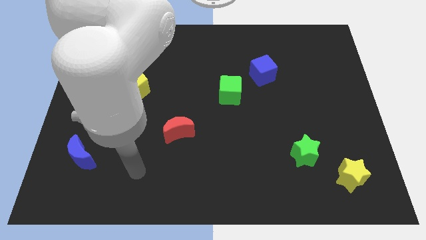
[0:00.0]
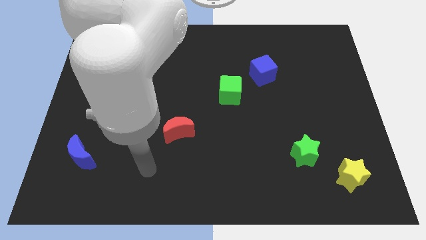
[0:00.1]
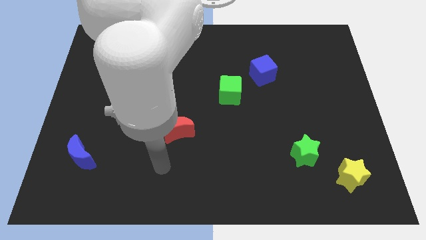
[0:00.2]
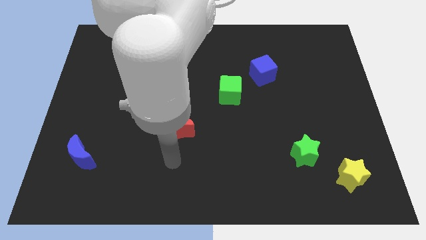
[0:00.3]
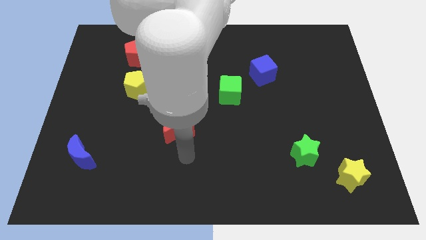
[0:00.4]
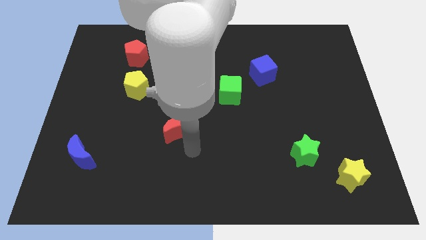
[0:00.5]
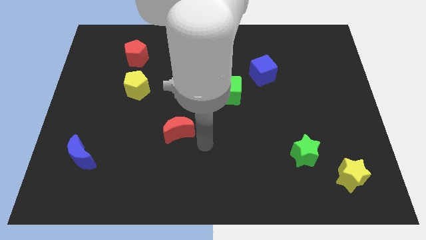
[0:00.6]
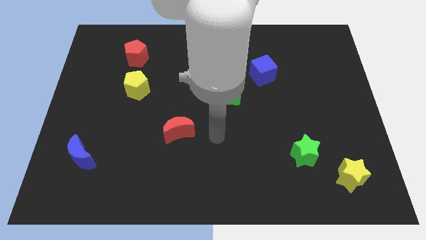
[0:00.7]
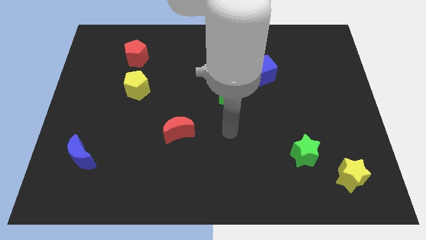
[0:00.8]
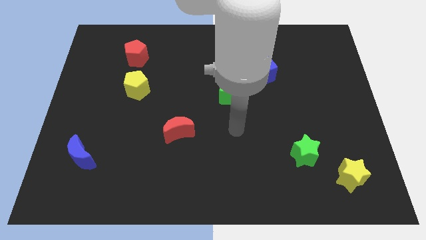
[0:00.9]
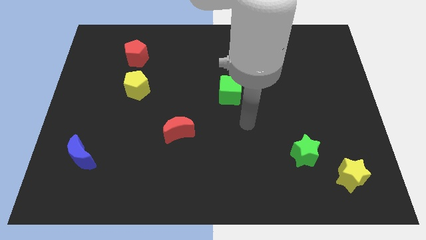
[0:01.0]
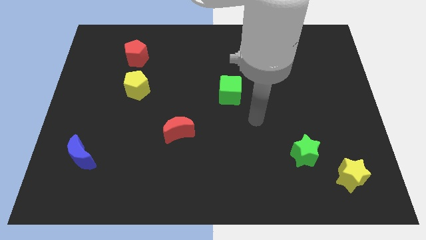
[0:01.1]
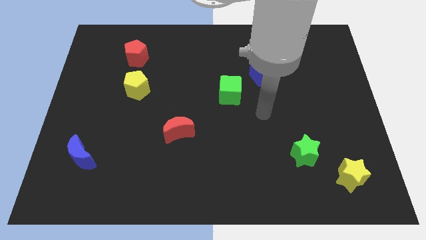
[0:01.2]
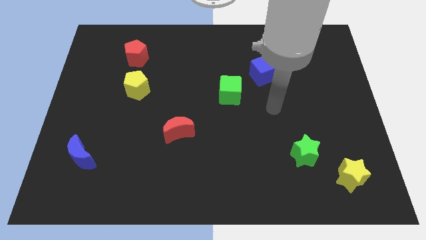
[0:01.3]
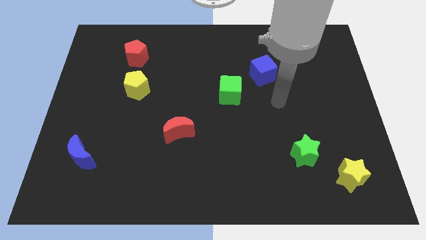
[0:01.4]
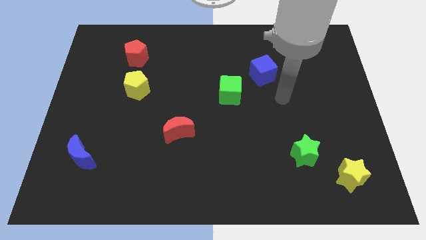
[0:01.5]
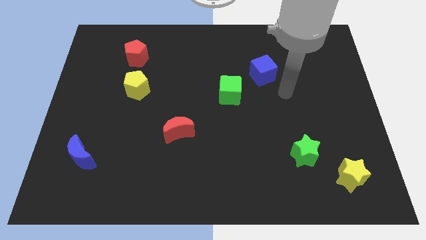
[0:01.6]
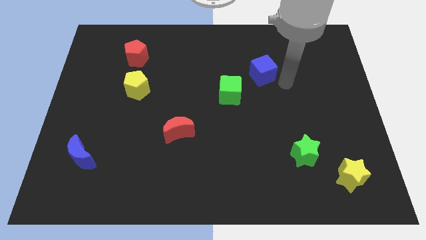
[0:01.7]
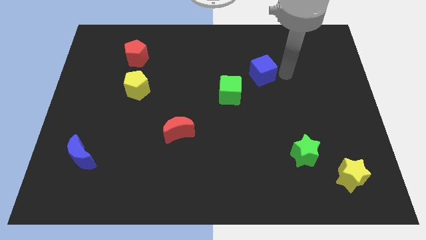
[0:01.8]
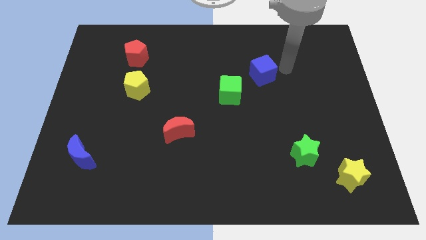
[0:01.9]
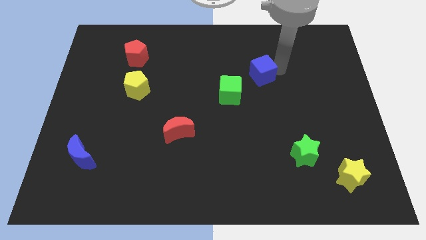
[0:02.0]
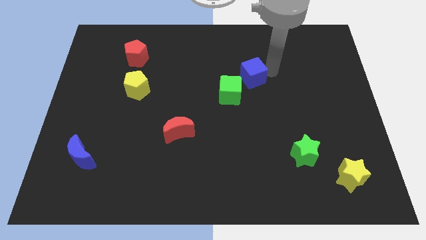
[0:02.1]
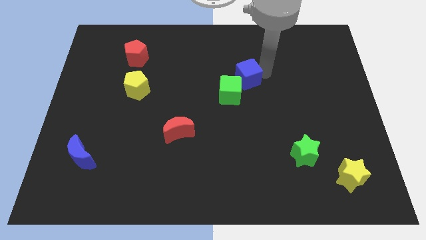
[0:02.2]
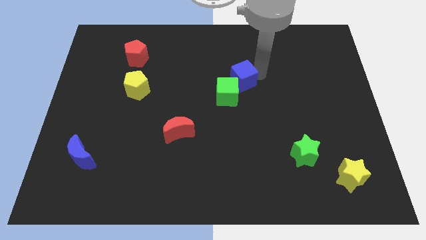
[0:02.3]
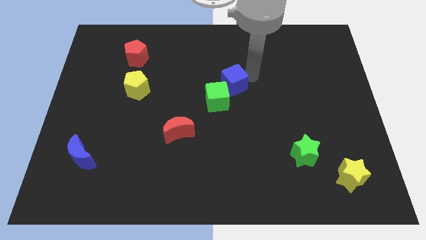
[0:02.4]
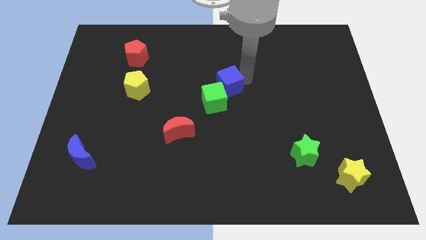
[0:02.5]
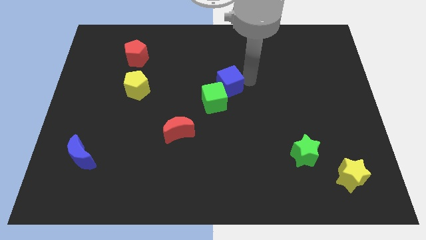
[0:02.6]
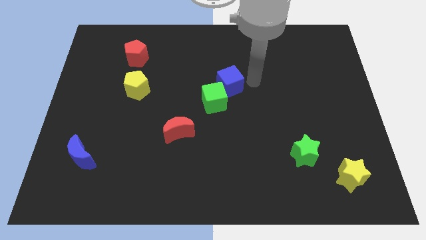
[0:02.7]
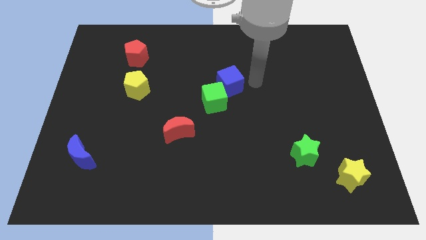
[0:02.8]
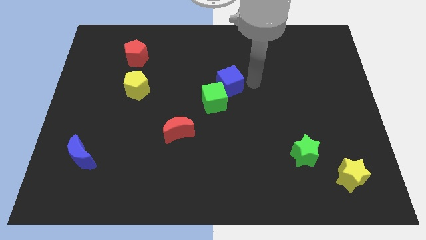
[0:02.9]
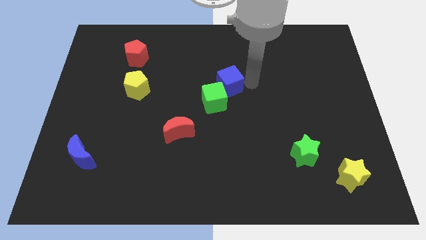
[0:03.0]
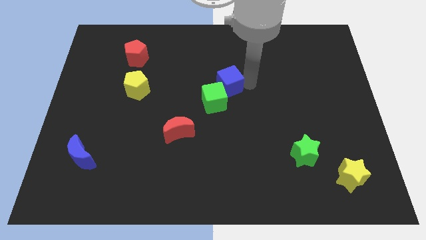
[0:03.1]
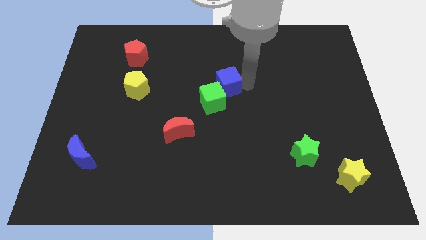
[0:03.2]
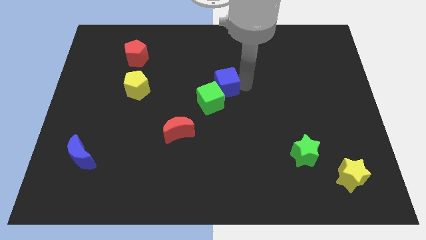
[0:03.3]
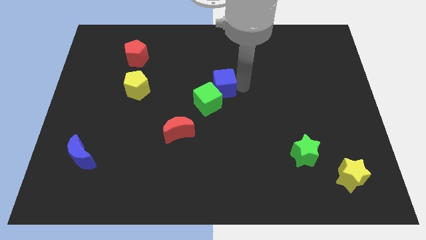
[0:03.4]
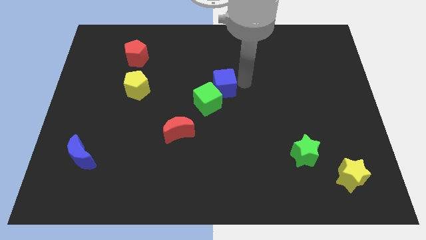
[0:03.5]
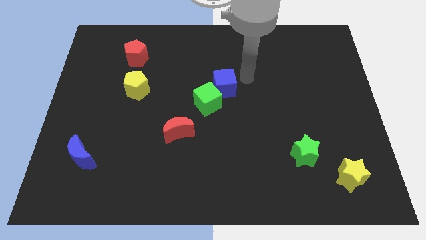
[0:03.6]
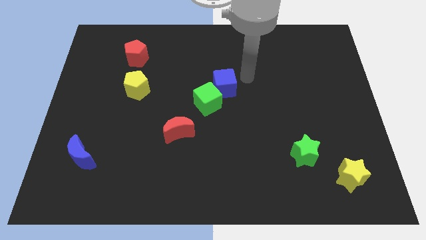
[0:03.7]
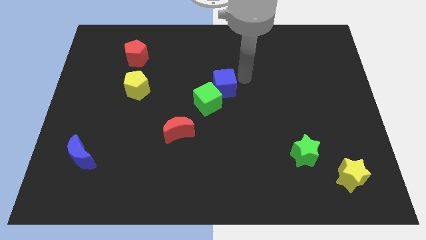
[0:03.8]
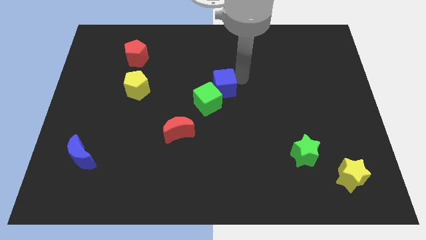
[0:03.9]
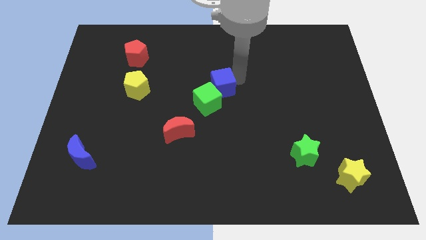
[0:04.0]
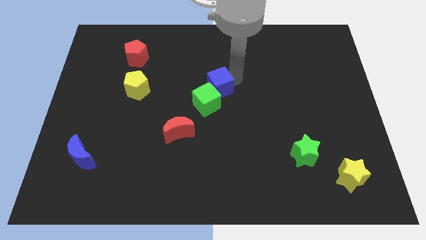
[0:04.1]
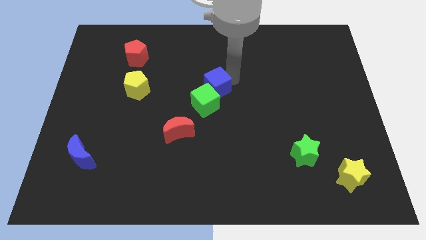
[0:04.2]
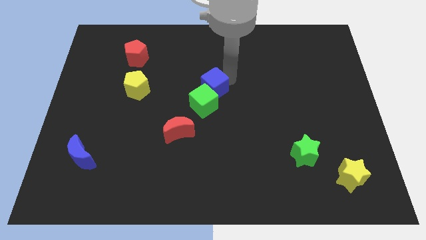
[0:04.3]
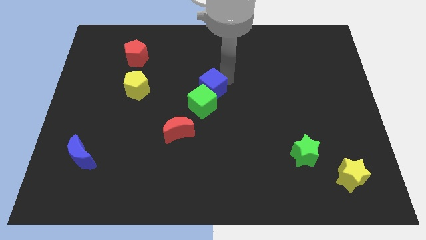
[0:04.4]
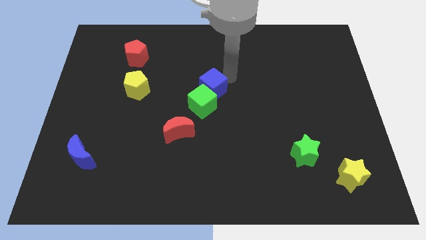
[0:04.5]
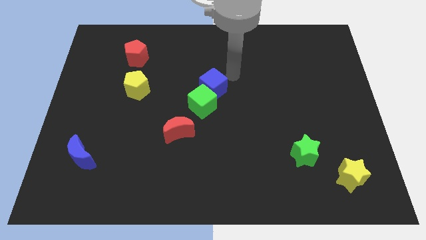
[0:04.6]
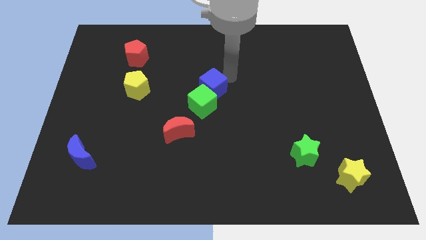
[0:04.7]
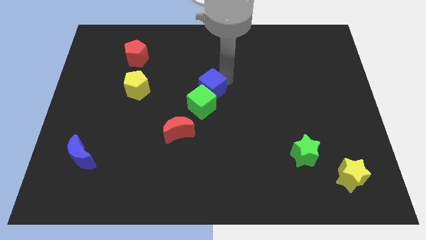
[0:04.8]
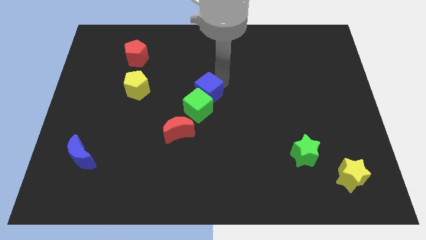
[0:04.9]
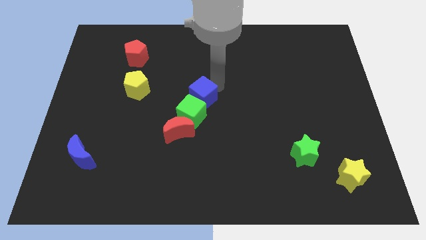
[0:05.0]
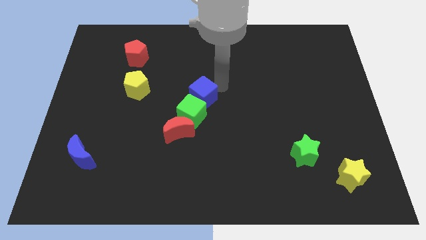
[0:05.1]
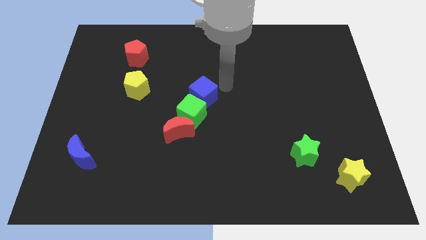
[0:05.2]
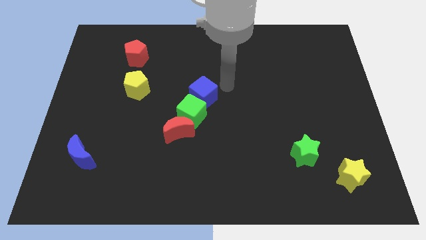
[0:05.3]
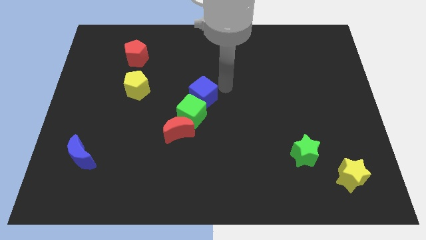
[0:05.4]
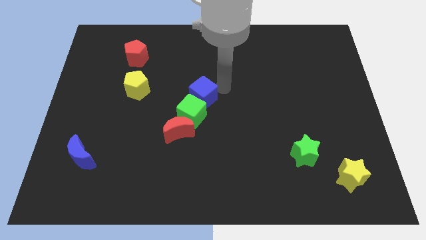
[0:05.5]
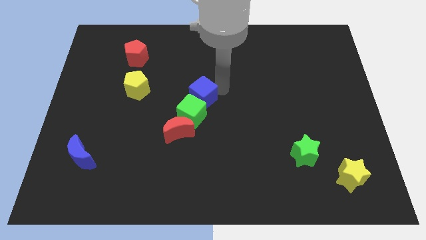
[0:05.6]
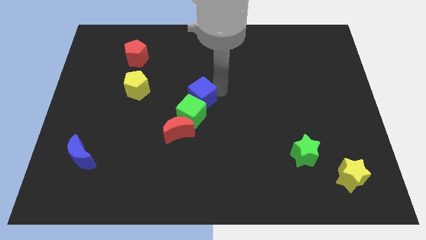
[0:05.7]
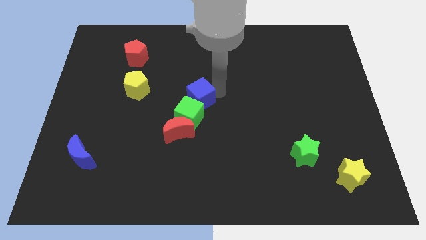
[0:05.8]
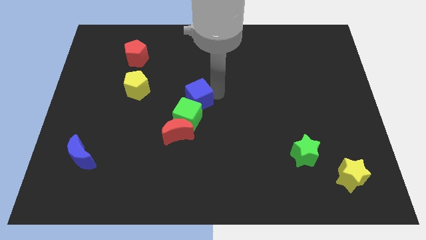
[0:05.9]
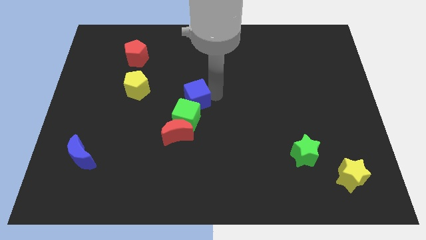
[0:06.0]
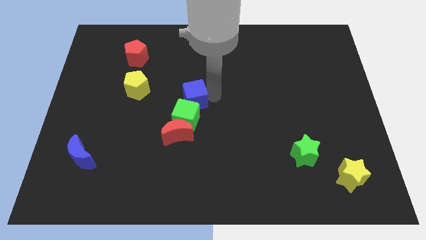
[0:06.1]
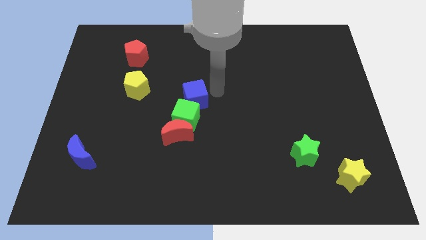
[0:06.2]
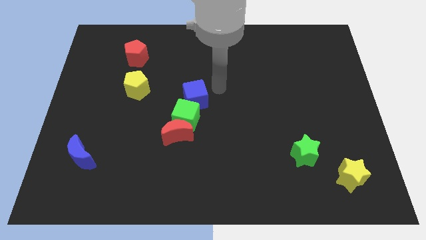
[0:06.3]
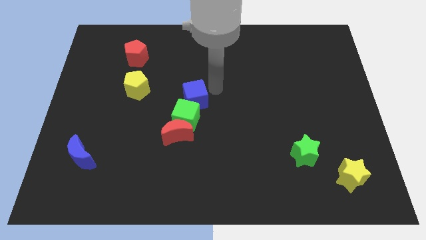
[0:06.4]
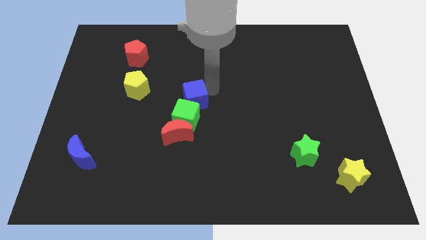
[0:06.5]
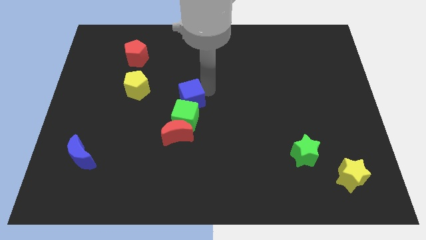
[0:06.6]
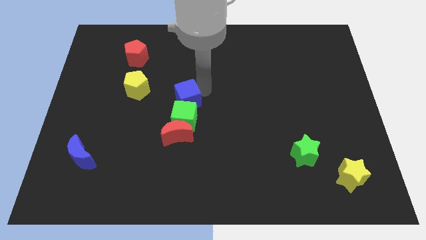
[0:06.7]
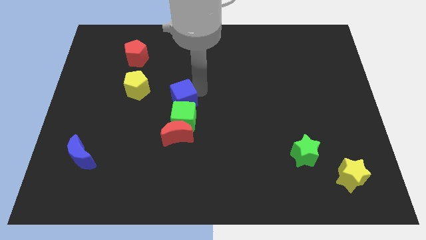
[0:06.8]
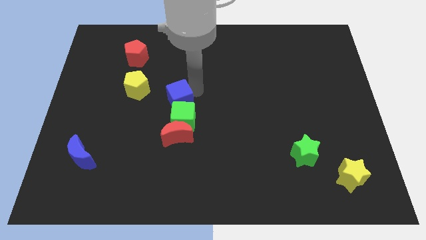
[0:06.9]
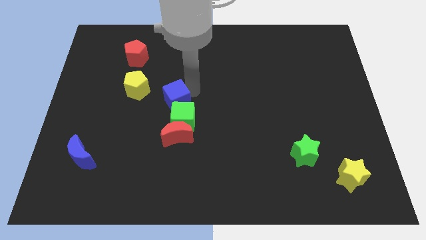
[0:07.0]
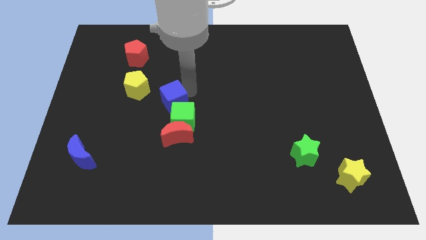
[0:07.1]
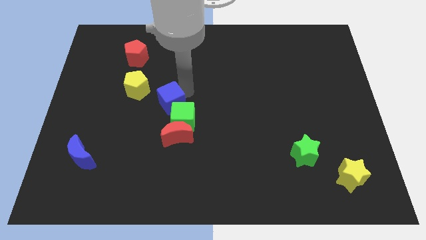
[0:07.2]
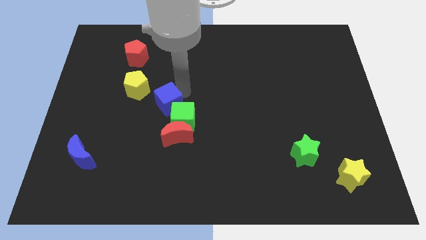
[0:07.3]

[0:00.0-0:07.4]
slide the blue cube to the top left side of the red moon

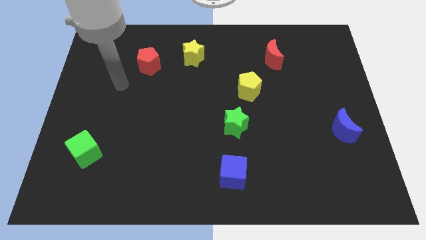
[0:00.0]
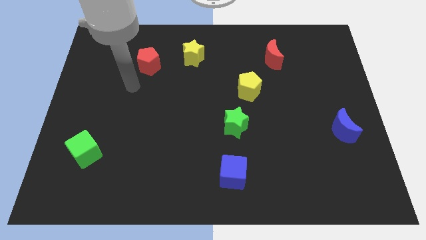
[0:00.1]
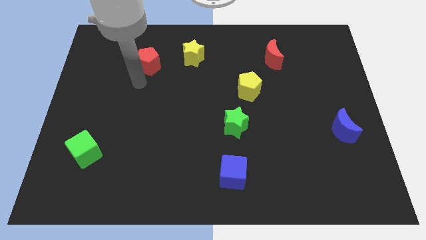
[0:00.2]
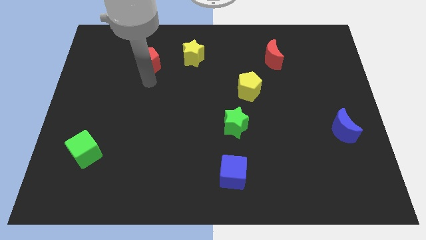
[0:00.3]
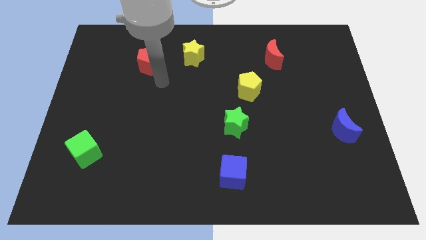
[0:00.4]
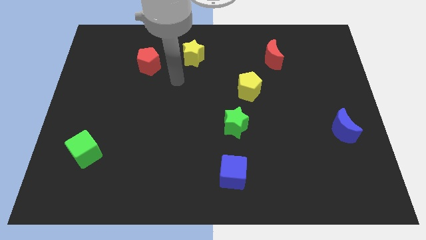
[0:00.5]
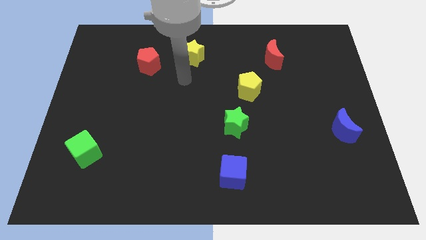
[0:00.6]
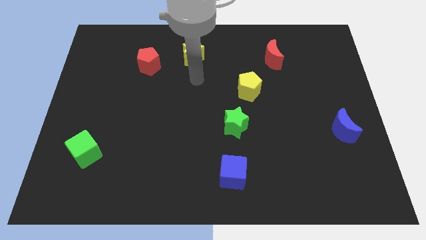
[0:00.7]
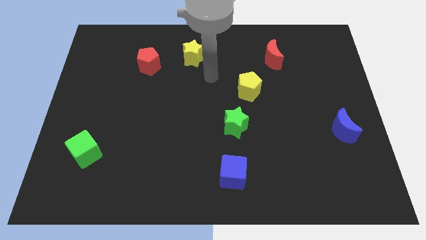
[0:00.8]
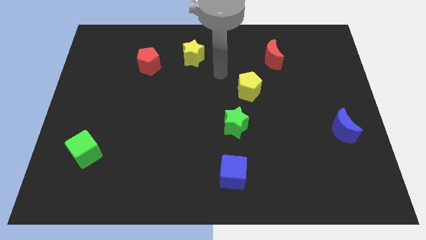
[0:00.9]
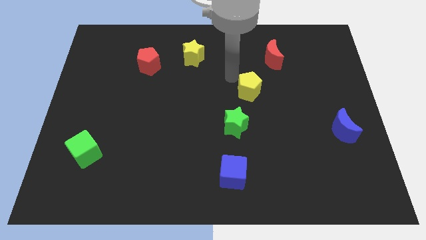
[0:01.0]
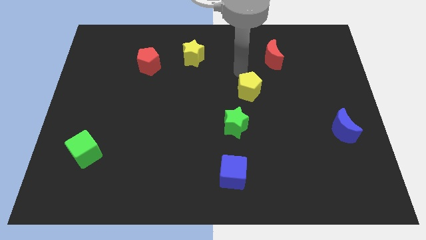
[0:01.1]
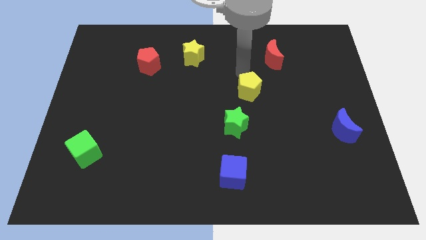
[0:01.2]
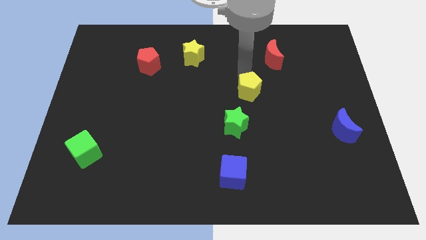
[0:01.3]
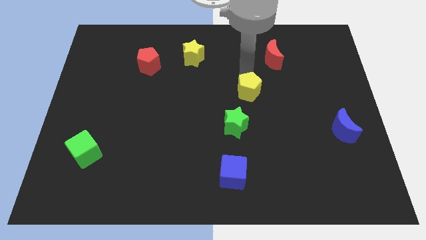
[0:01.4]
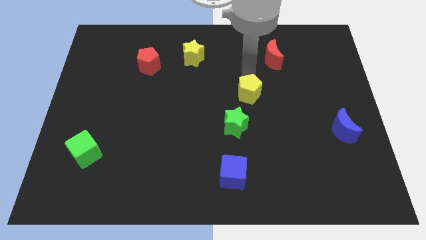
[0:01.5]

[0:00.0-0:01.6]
push the yellow pentagon to the top right side of the green star
